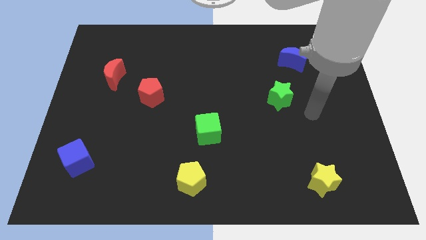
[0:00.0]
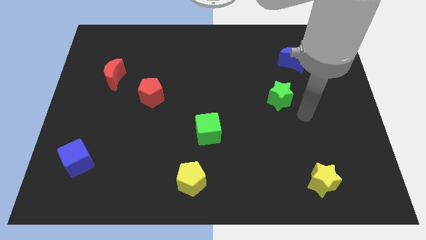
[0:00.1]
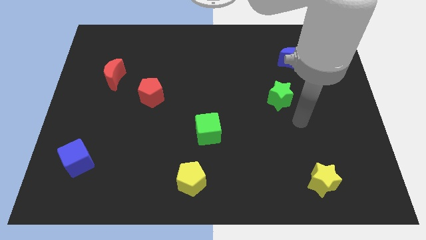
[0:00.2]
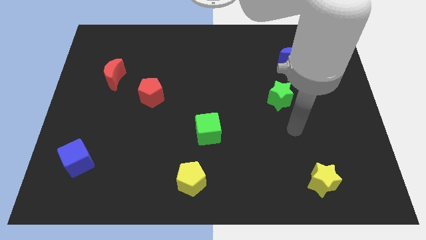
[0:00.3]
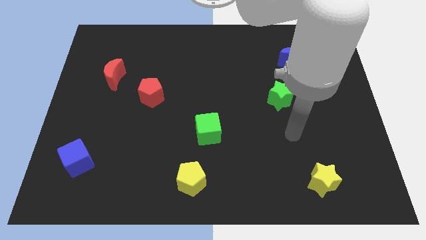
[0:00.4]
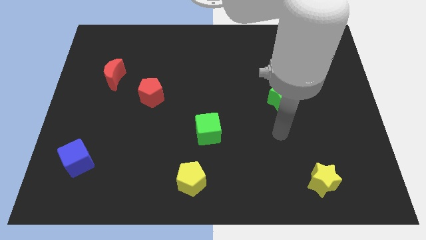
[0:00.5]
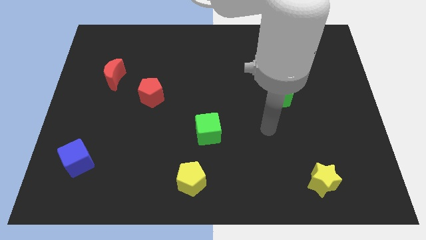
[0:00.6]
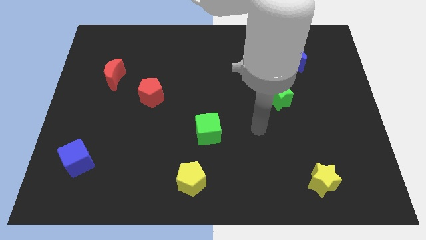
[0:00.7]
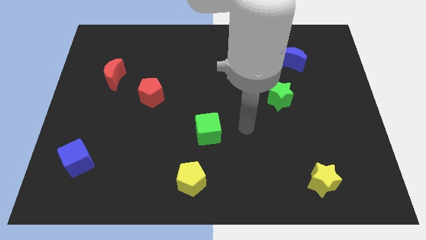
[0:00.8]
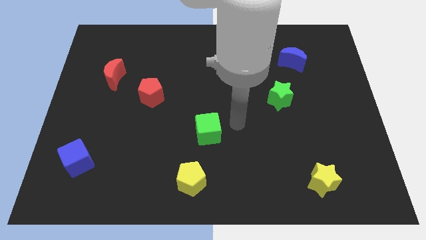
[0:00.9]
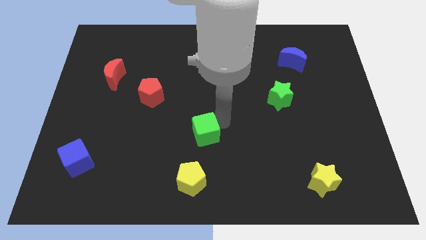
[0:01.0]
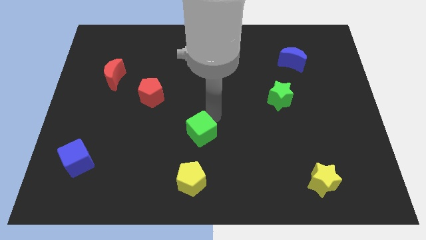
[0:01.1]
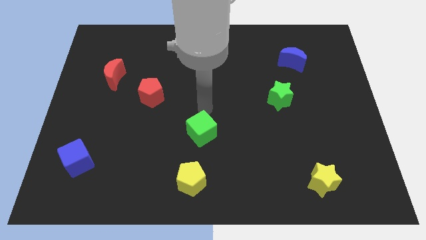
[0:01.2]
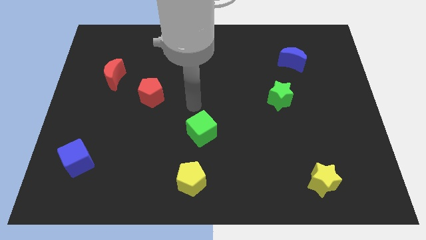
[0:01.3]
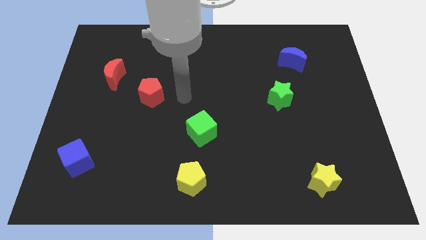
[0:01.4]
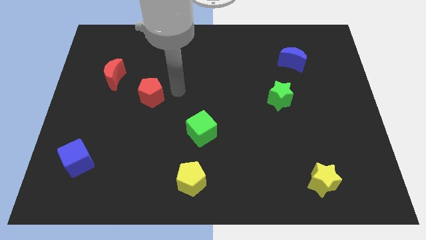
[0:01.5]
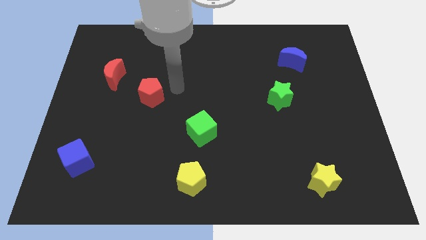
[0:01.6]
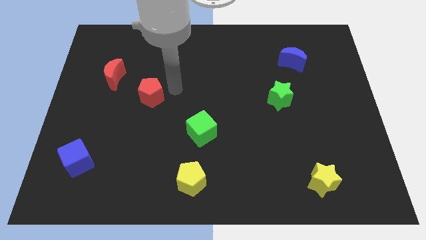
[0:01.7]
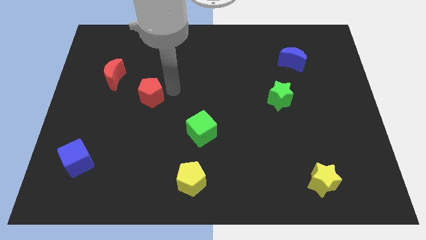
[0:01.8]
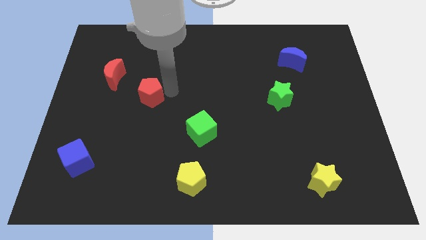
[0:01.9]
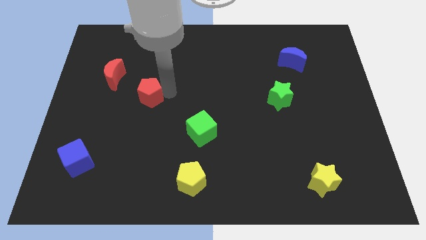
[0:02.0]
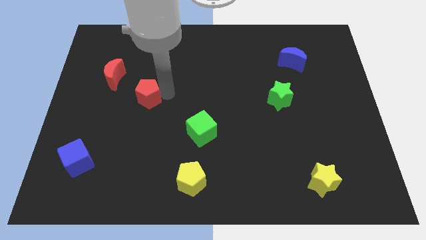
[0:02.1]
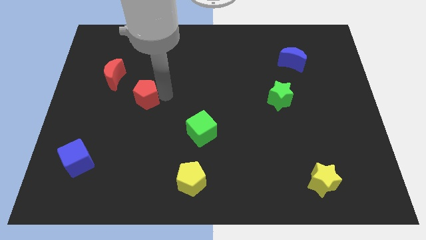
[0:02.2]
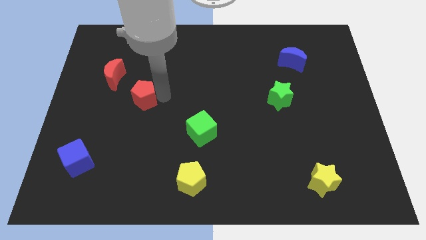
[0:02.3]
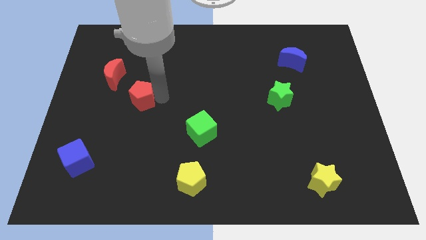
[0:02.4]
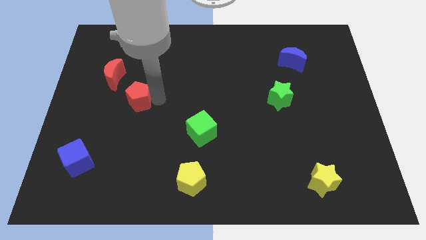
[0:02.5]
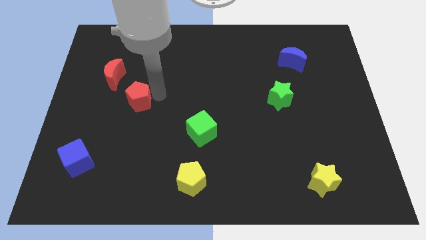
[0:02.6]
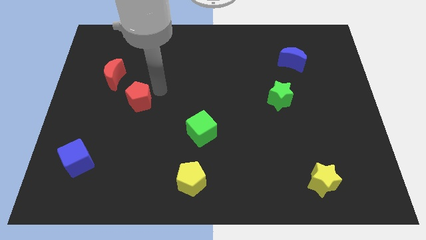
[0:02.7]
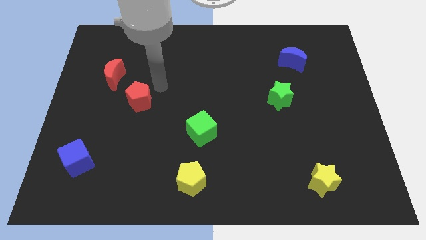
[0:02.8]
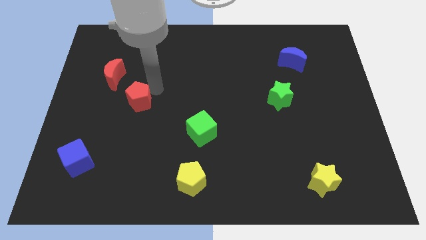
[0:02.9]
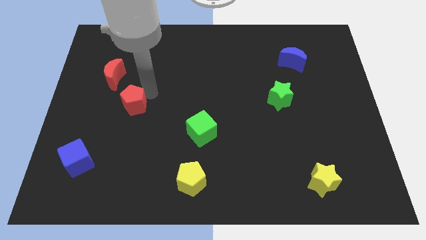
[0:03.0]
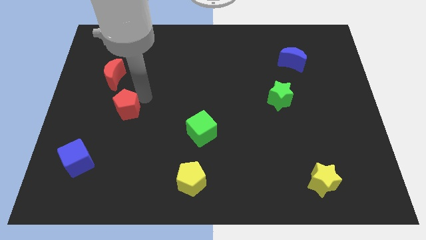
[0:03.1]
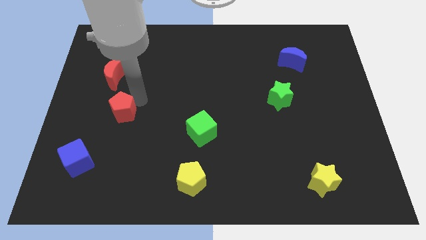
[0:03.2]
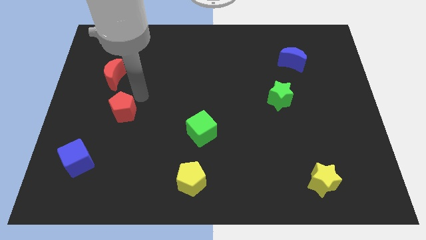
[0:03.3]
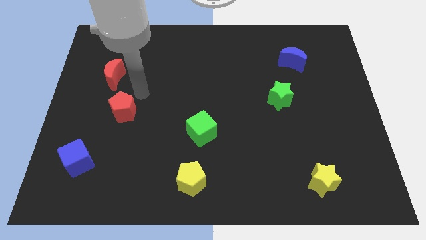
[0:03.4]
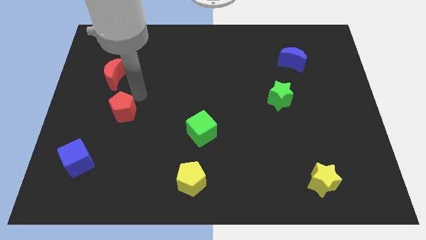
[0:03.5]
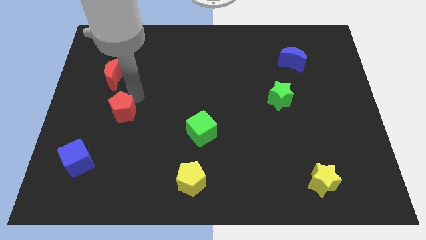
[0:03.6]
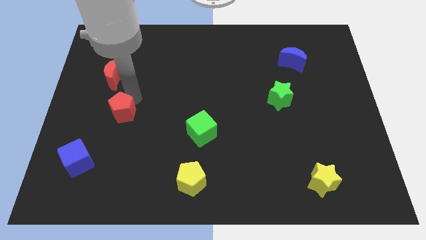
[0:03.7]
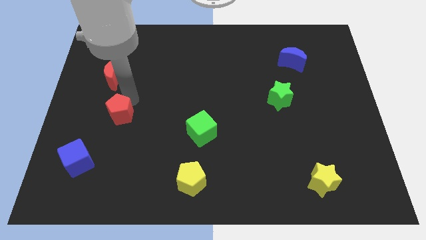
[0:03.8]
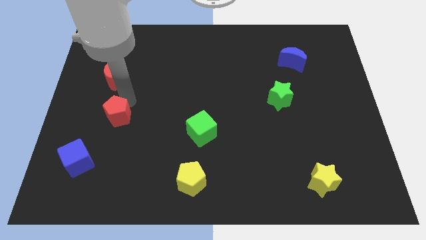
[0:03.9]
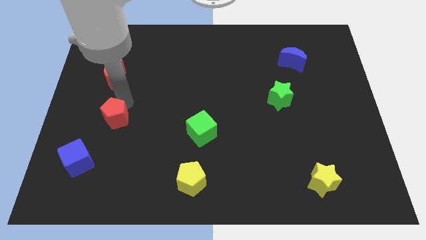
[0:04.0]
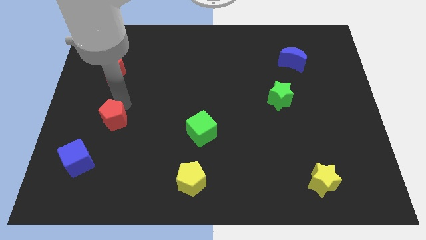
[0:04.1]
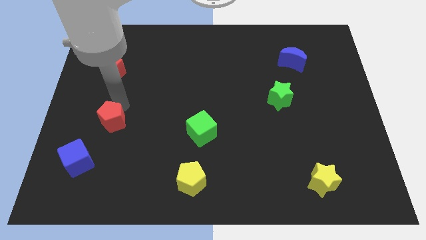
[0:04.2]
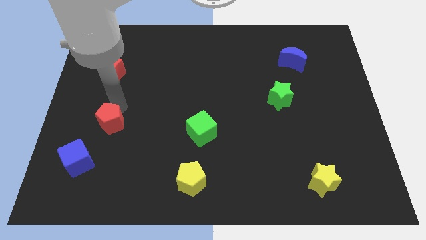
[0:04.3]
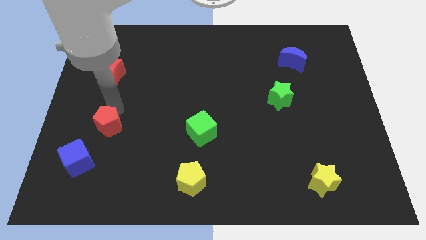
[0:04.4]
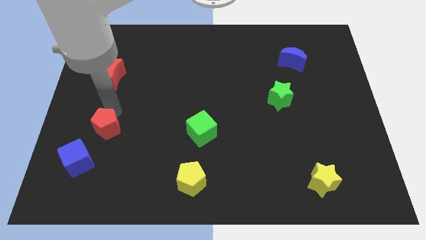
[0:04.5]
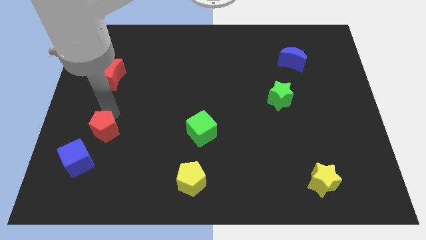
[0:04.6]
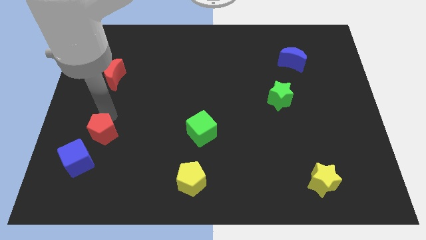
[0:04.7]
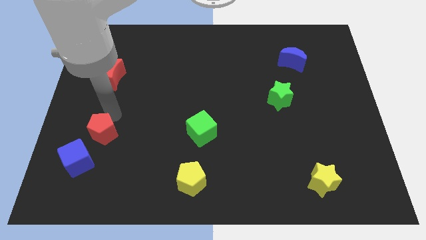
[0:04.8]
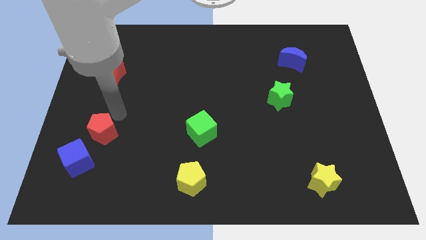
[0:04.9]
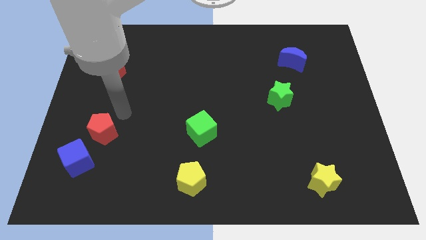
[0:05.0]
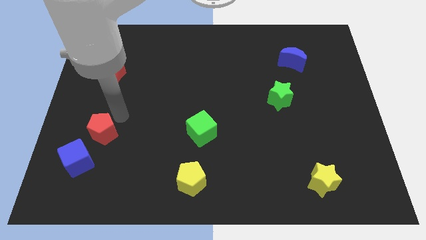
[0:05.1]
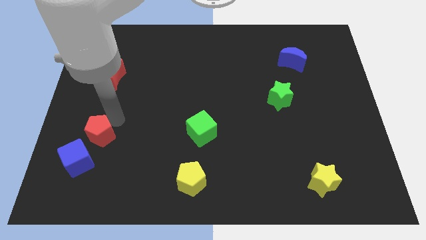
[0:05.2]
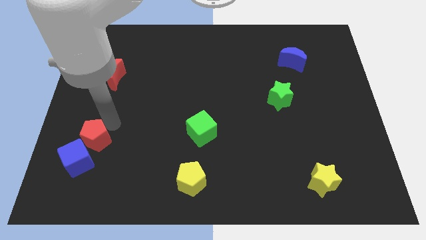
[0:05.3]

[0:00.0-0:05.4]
put the red pentagon next to the blue cube
